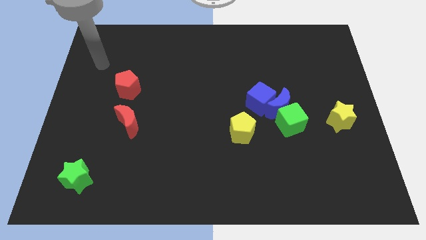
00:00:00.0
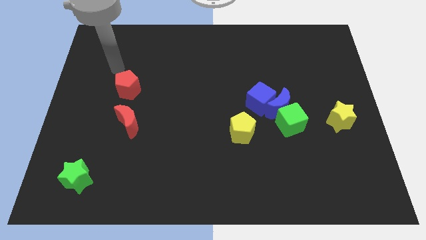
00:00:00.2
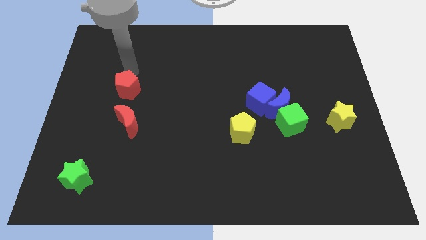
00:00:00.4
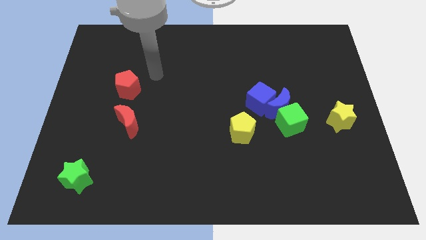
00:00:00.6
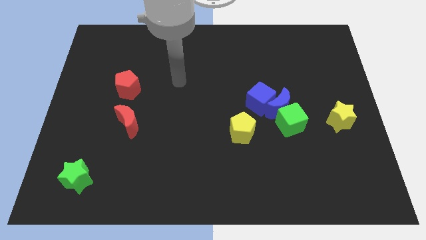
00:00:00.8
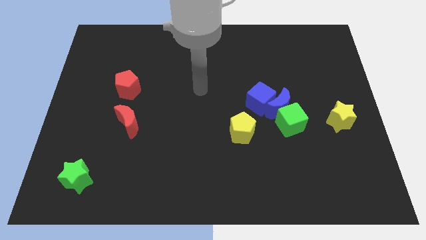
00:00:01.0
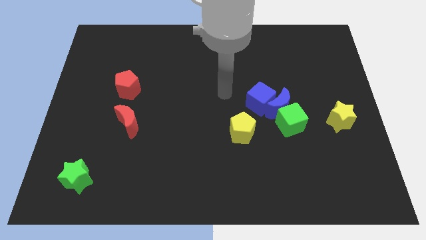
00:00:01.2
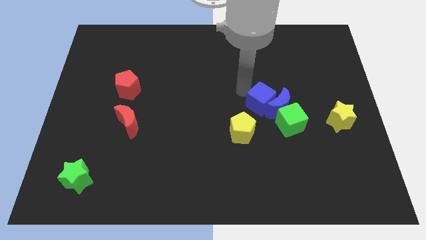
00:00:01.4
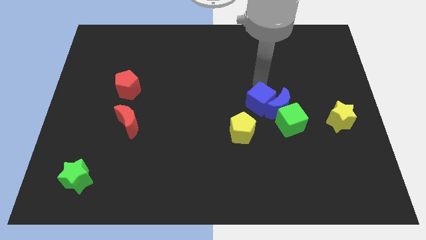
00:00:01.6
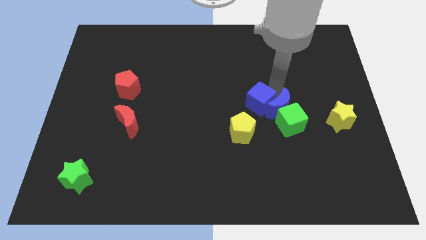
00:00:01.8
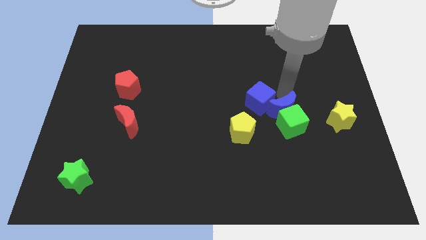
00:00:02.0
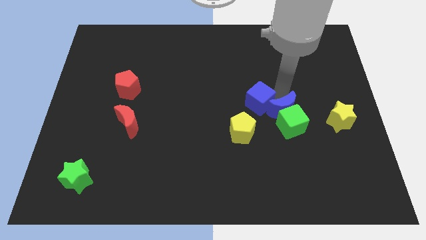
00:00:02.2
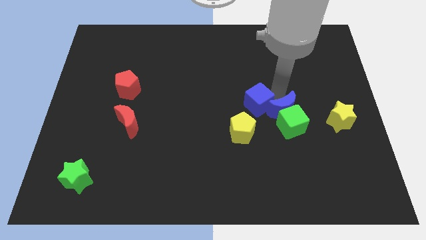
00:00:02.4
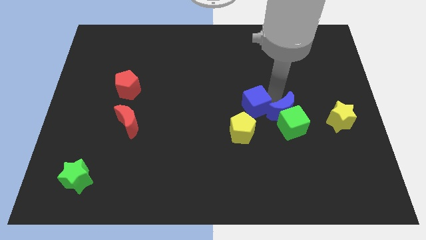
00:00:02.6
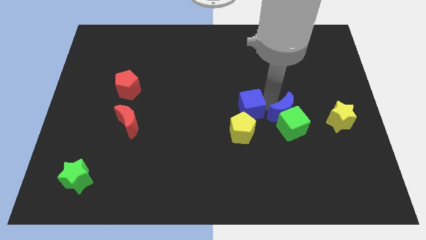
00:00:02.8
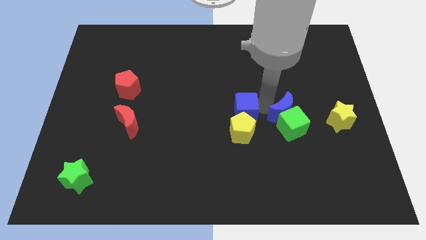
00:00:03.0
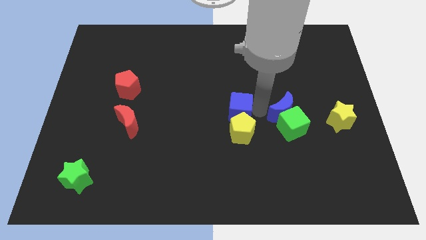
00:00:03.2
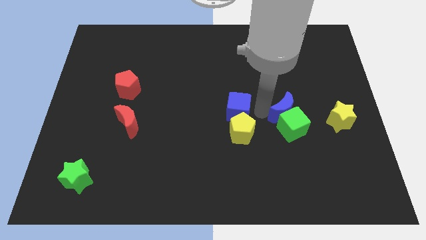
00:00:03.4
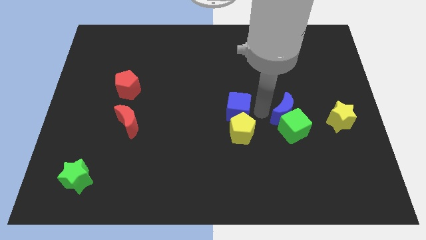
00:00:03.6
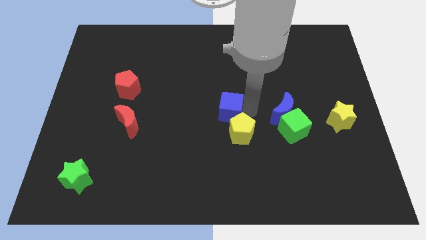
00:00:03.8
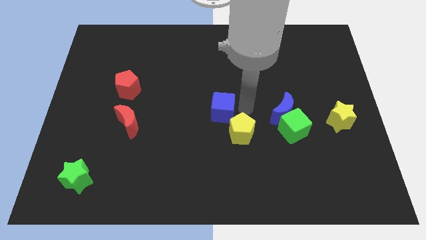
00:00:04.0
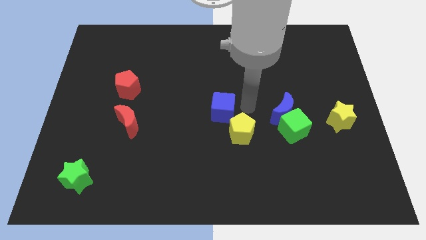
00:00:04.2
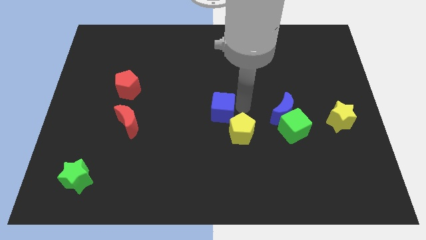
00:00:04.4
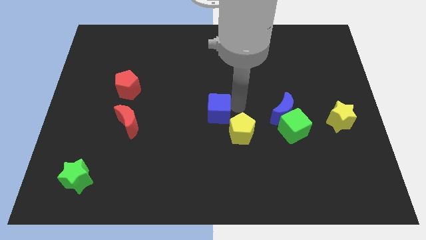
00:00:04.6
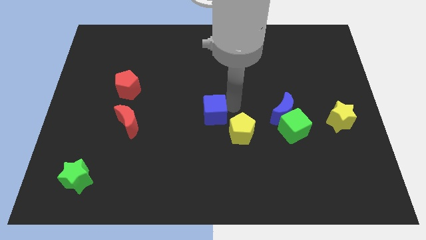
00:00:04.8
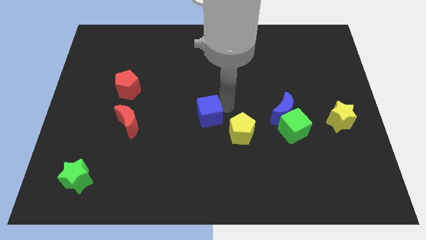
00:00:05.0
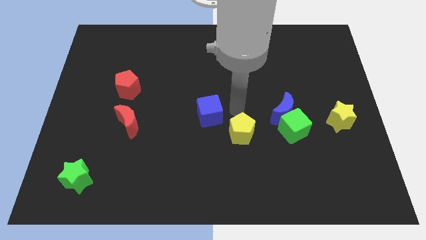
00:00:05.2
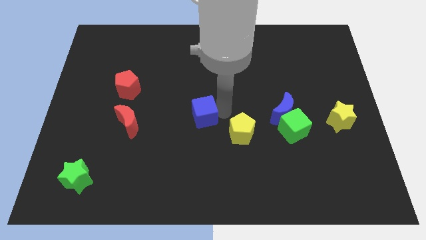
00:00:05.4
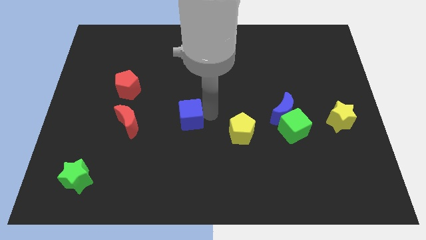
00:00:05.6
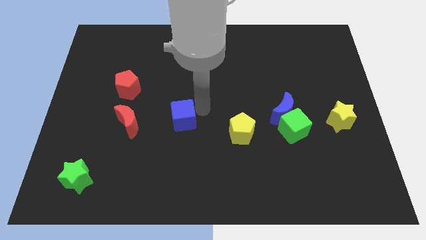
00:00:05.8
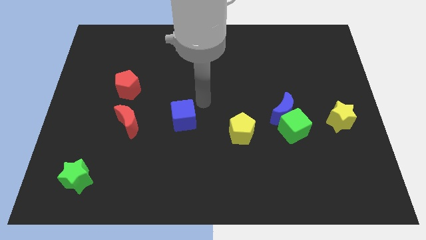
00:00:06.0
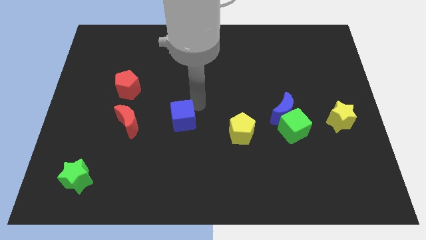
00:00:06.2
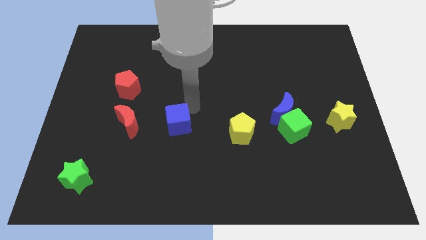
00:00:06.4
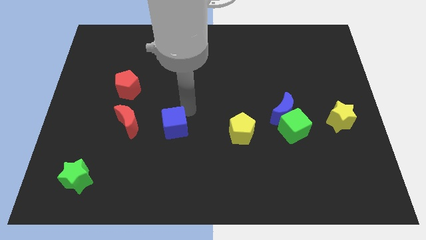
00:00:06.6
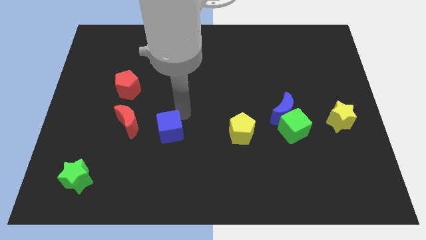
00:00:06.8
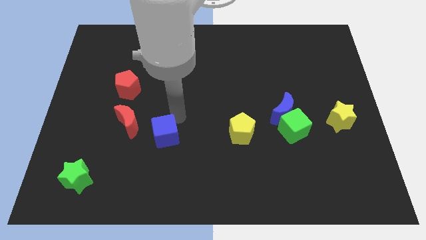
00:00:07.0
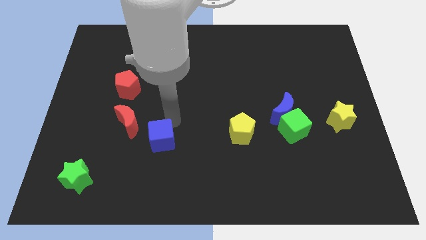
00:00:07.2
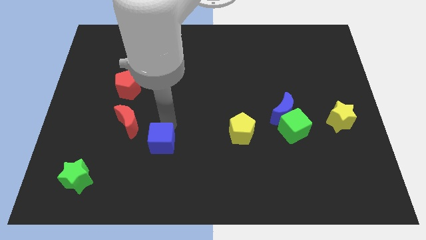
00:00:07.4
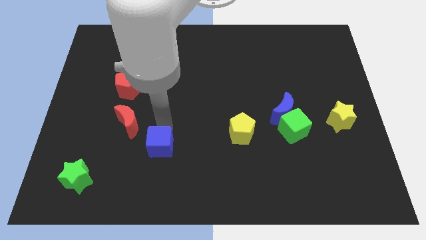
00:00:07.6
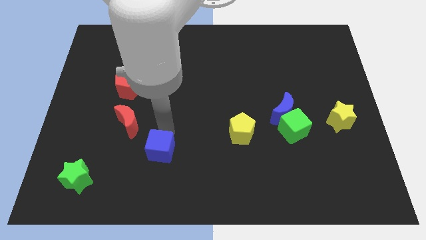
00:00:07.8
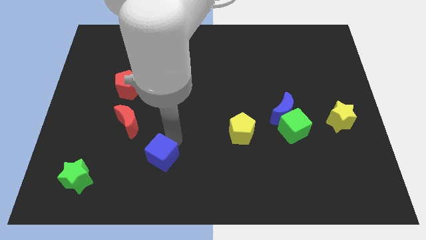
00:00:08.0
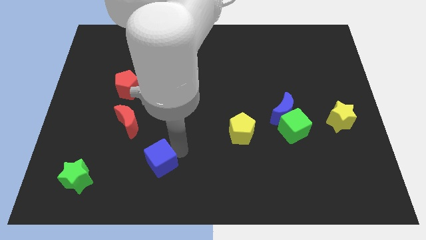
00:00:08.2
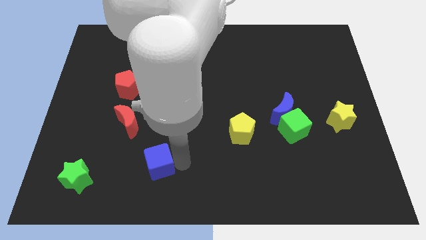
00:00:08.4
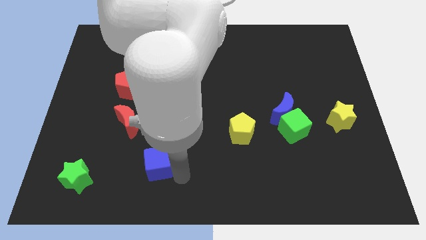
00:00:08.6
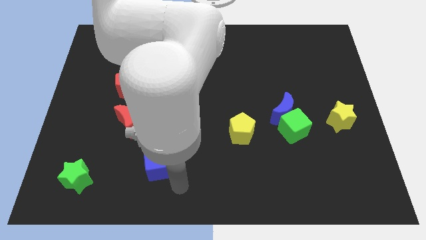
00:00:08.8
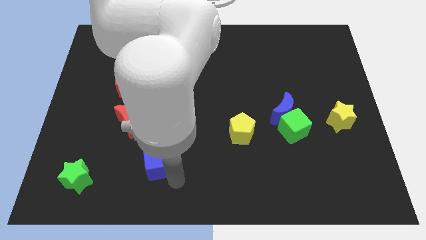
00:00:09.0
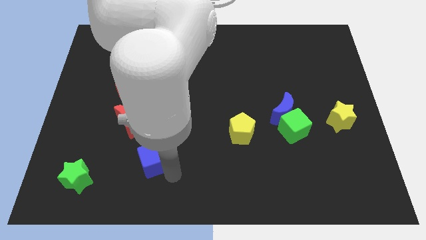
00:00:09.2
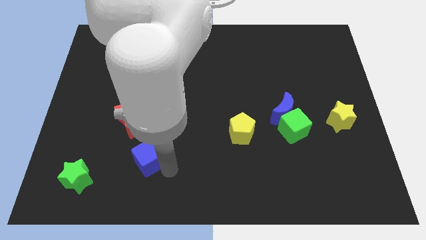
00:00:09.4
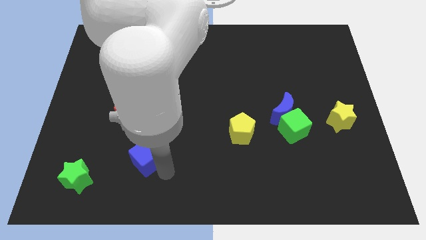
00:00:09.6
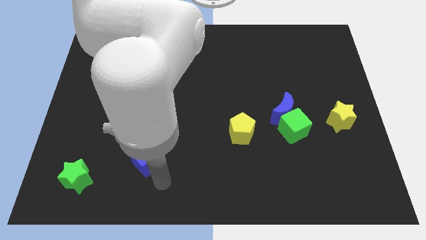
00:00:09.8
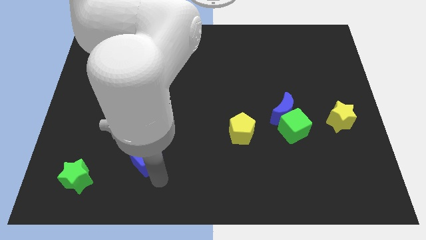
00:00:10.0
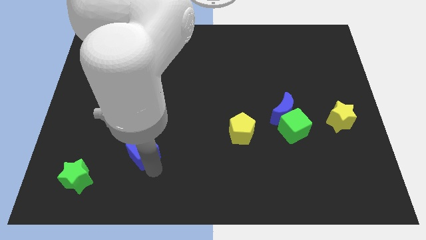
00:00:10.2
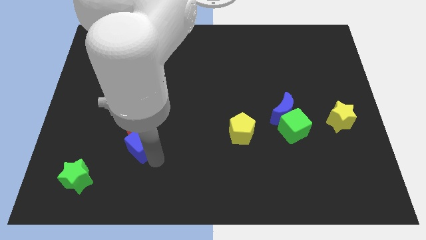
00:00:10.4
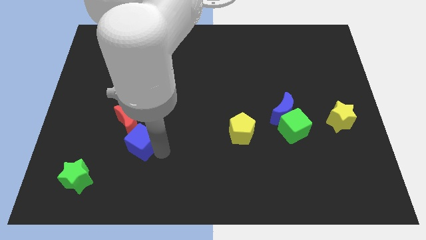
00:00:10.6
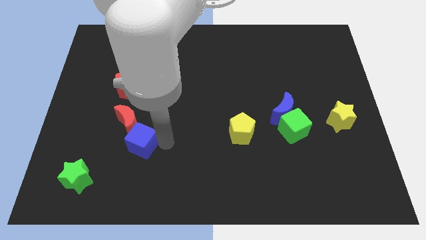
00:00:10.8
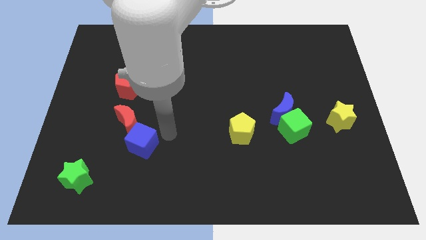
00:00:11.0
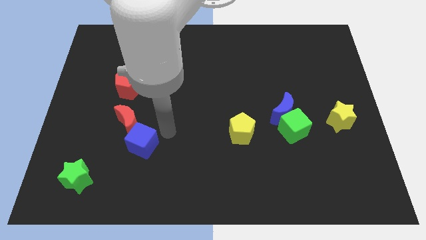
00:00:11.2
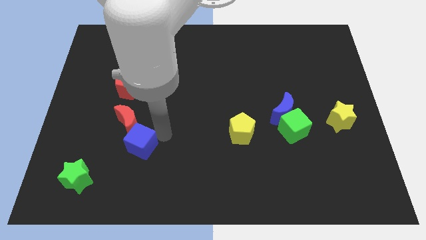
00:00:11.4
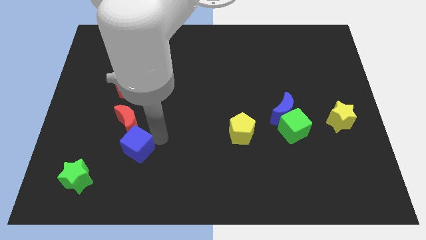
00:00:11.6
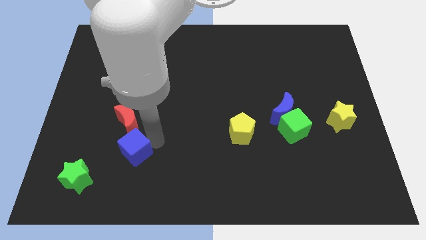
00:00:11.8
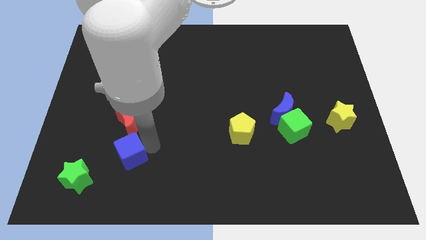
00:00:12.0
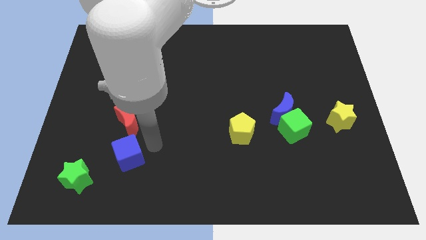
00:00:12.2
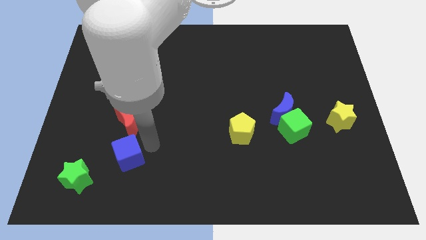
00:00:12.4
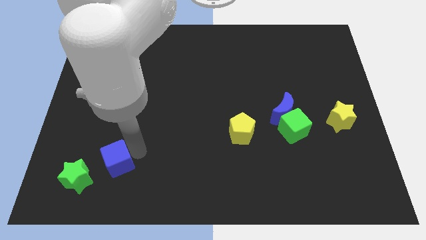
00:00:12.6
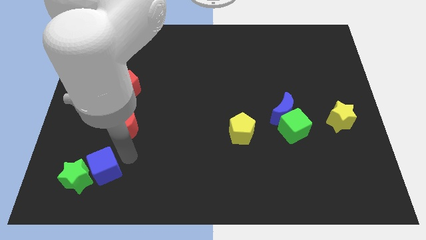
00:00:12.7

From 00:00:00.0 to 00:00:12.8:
push the blue cube towards the green star
